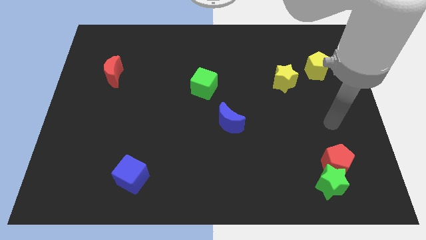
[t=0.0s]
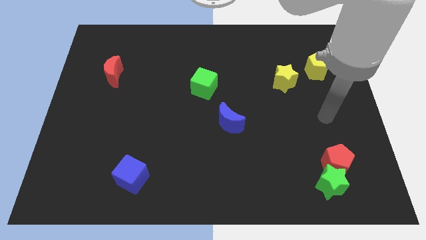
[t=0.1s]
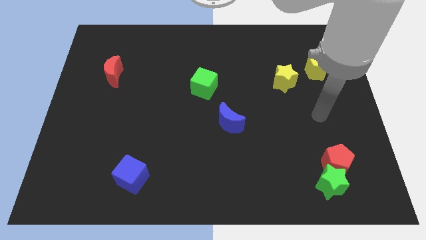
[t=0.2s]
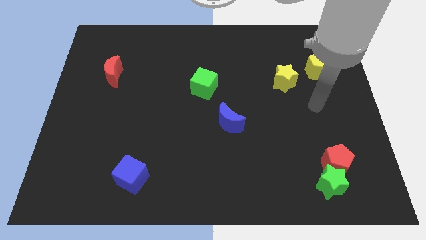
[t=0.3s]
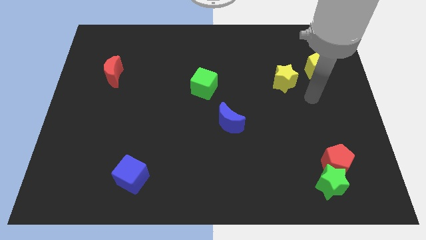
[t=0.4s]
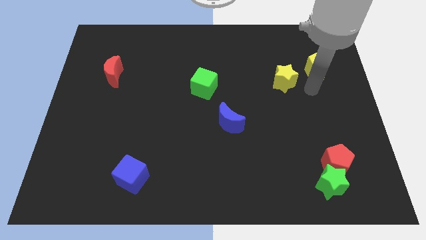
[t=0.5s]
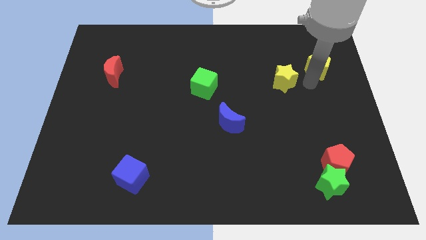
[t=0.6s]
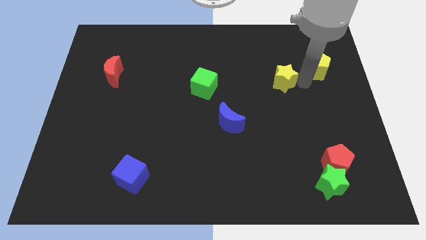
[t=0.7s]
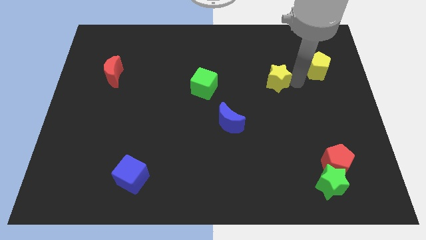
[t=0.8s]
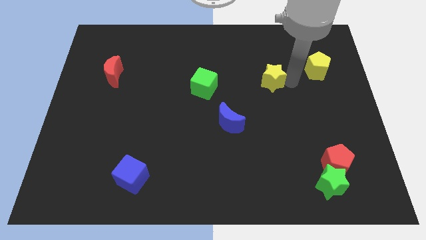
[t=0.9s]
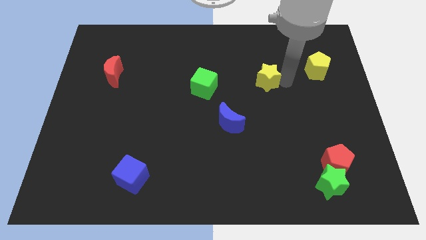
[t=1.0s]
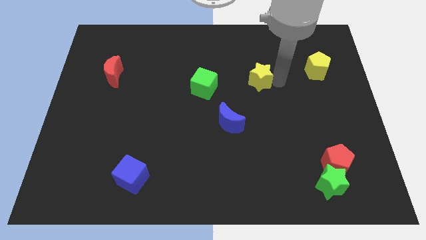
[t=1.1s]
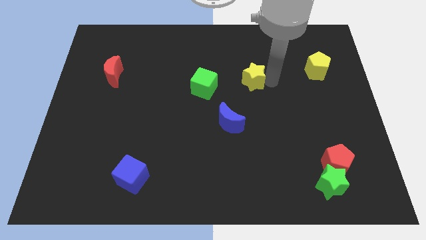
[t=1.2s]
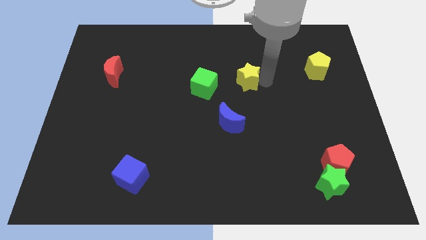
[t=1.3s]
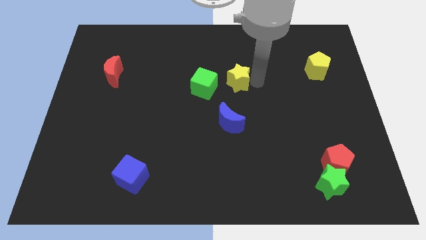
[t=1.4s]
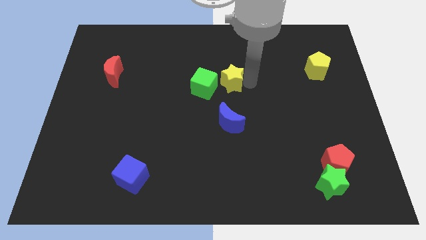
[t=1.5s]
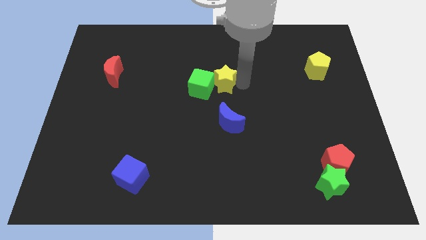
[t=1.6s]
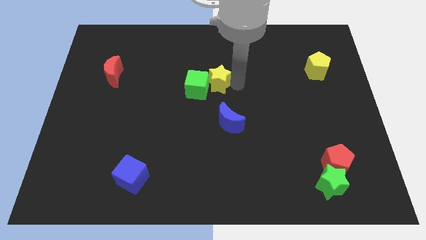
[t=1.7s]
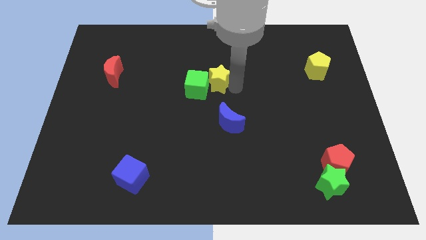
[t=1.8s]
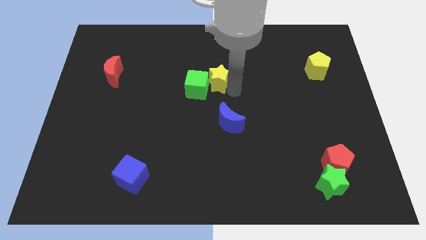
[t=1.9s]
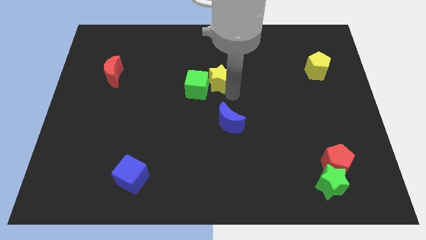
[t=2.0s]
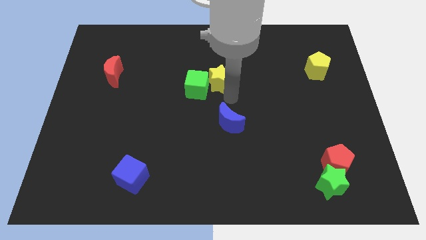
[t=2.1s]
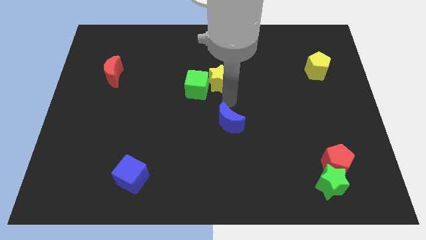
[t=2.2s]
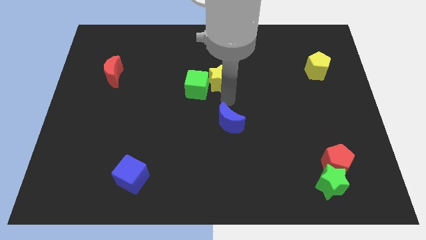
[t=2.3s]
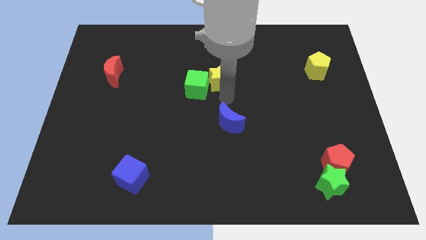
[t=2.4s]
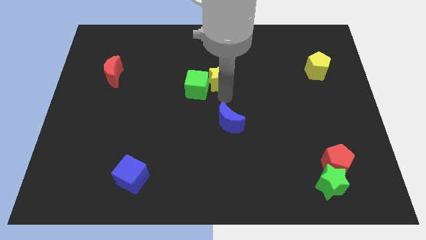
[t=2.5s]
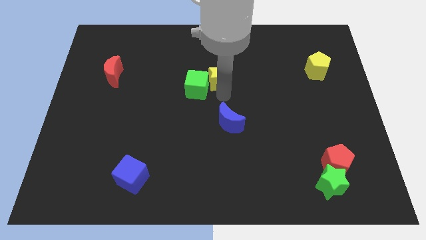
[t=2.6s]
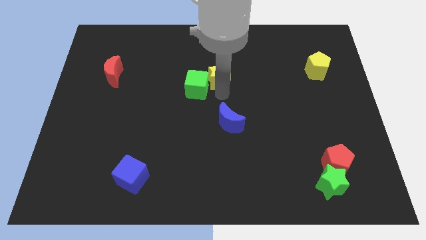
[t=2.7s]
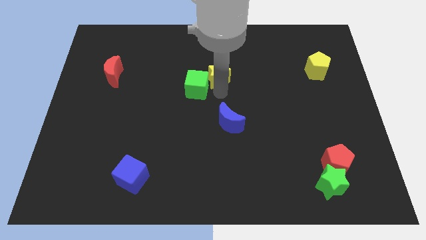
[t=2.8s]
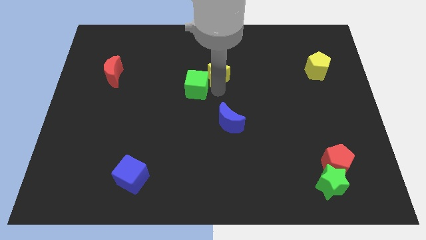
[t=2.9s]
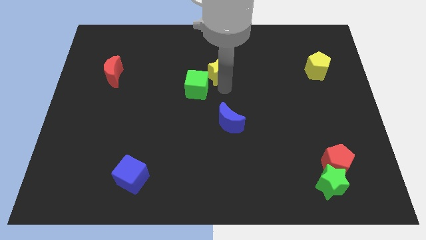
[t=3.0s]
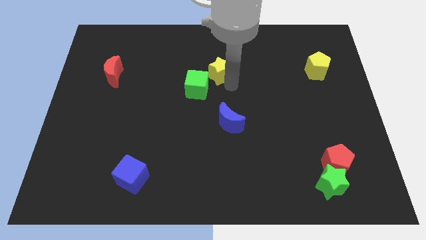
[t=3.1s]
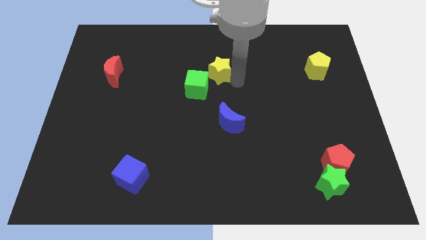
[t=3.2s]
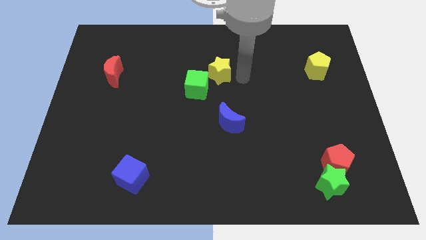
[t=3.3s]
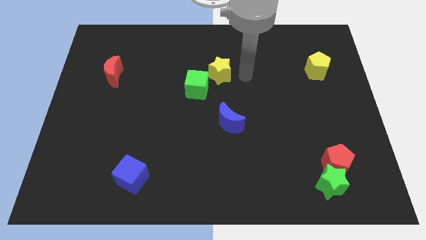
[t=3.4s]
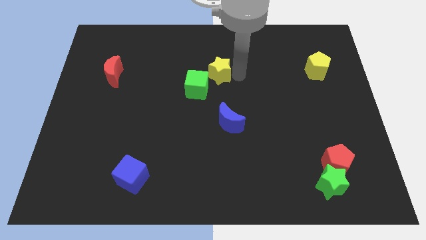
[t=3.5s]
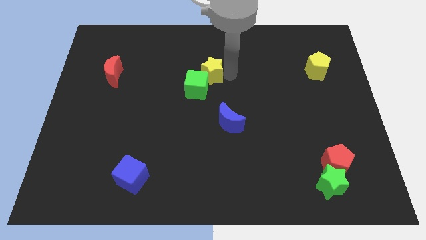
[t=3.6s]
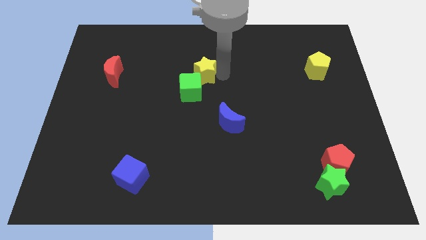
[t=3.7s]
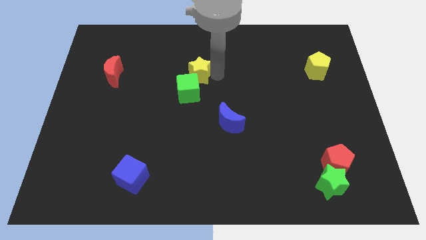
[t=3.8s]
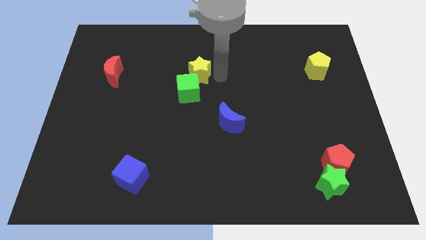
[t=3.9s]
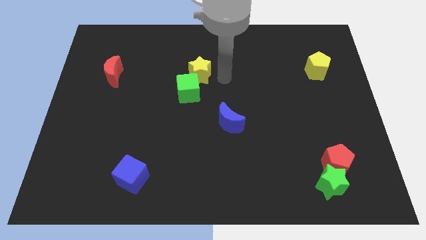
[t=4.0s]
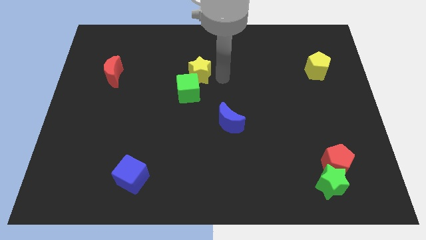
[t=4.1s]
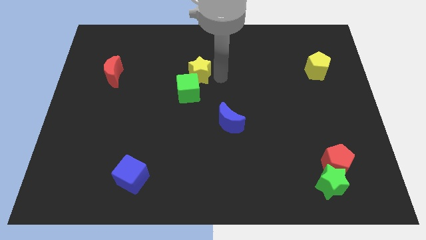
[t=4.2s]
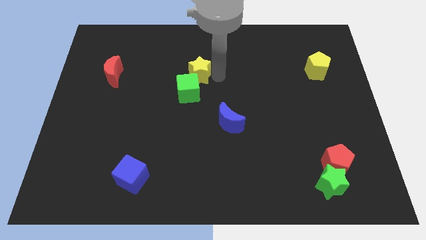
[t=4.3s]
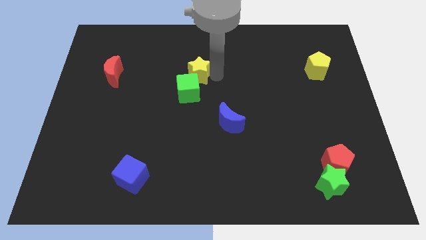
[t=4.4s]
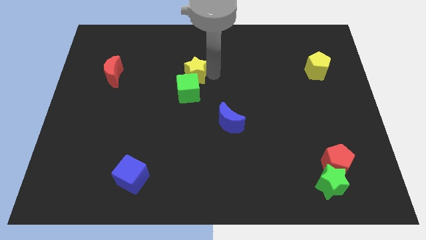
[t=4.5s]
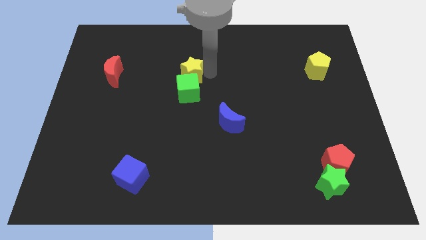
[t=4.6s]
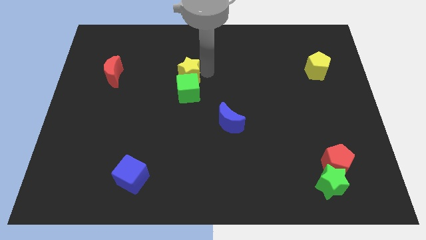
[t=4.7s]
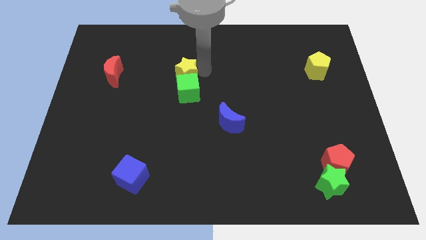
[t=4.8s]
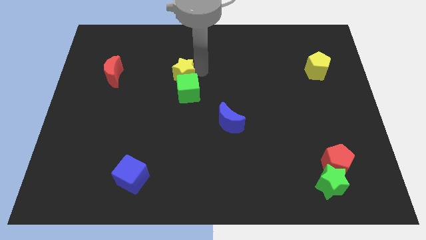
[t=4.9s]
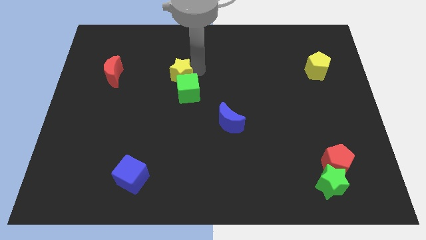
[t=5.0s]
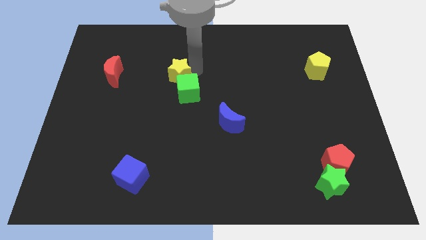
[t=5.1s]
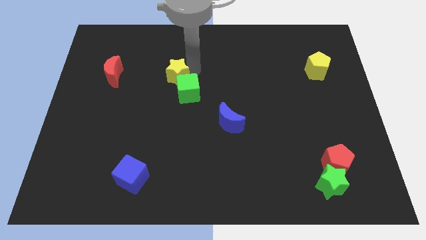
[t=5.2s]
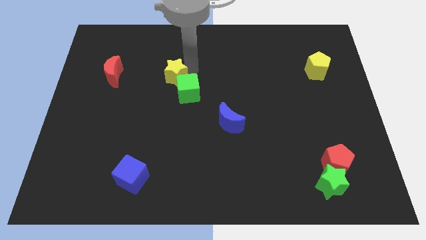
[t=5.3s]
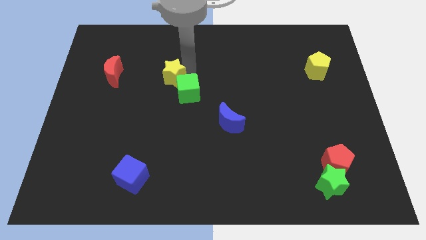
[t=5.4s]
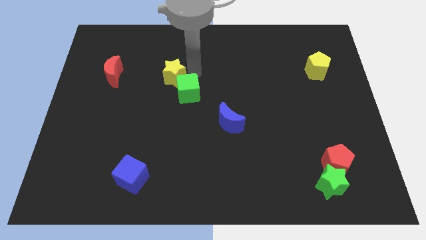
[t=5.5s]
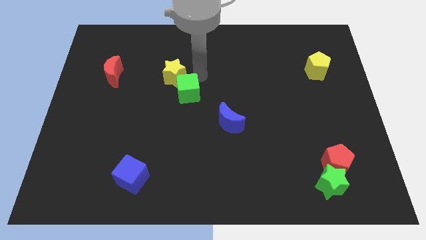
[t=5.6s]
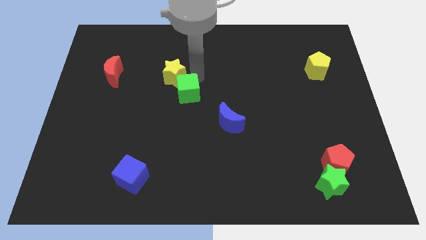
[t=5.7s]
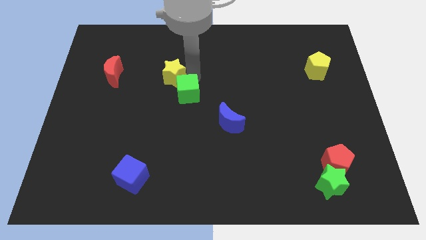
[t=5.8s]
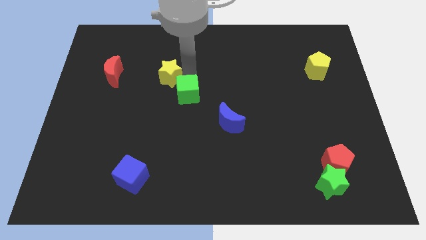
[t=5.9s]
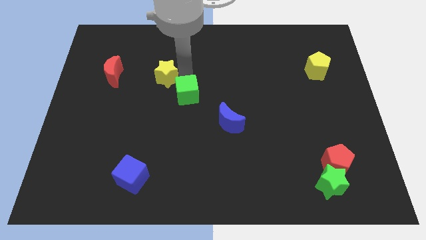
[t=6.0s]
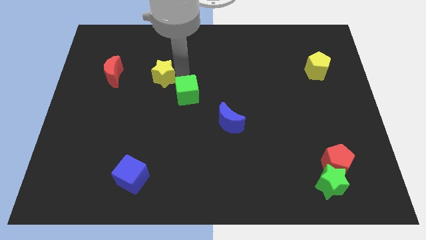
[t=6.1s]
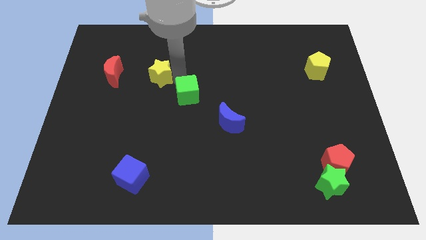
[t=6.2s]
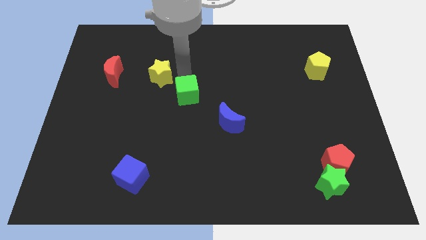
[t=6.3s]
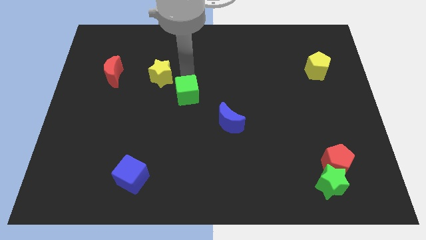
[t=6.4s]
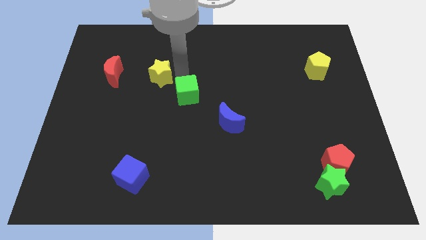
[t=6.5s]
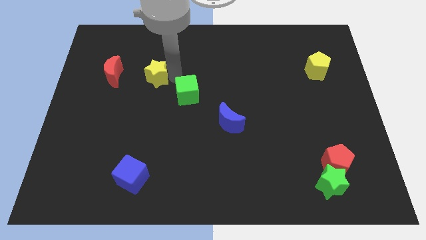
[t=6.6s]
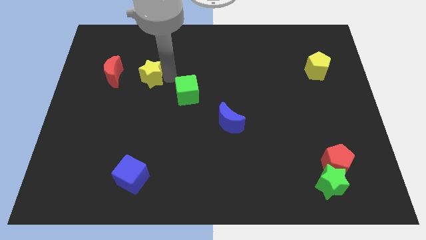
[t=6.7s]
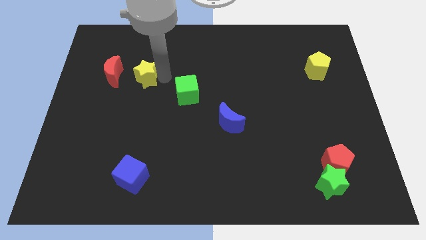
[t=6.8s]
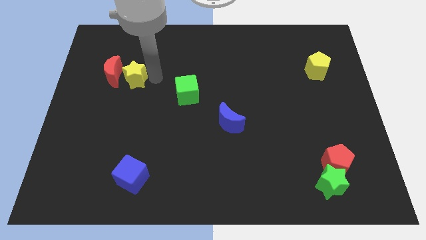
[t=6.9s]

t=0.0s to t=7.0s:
move the yellow star close to the red moon

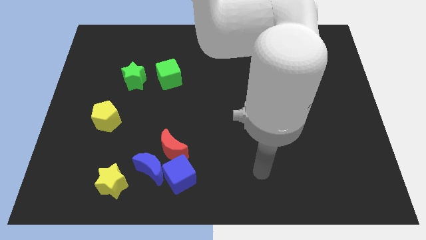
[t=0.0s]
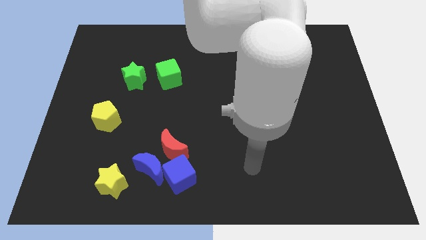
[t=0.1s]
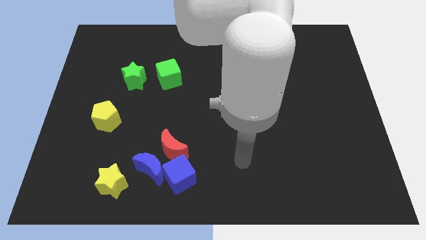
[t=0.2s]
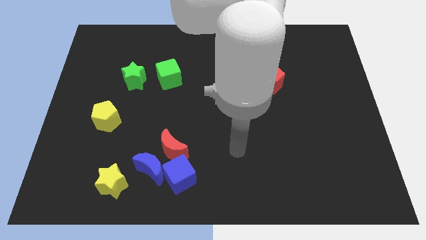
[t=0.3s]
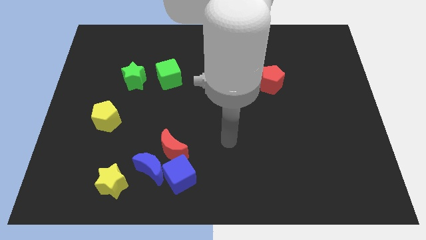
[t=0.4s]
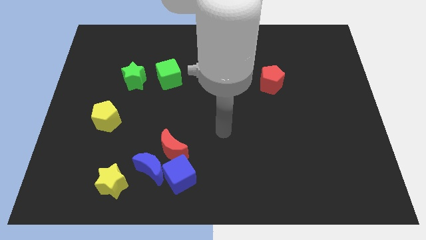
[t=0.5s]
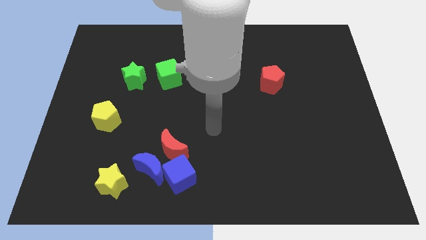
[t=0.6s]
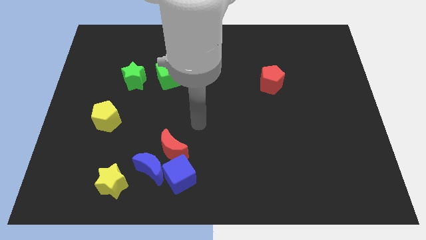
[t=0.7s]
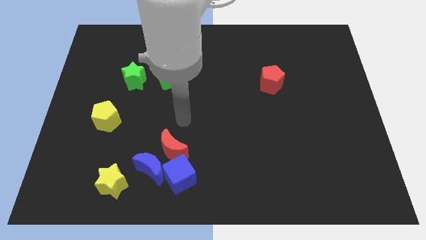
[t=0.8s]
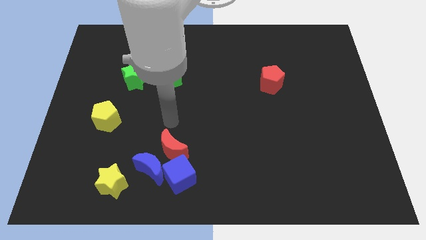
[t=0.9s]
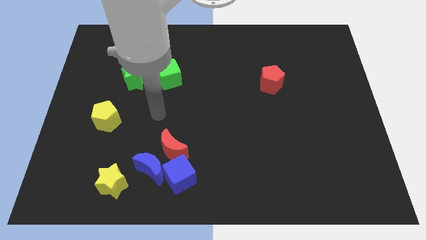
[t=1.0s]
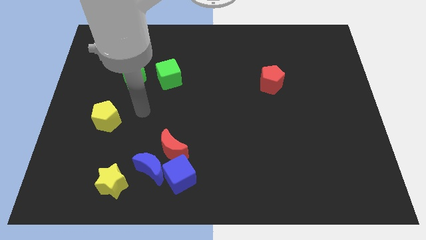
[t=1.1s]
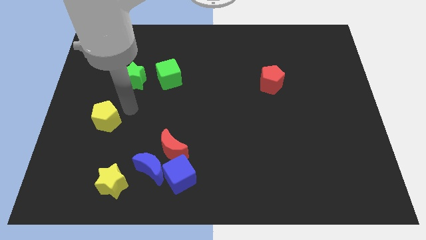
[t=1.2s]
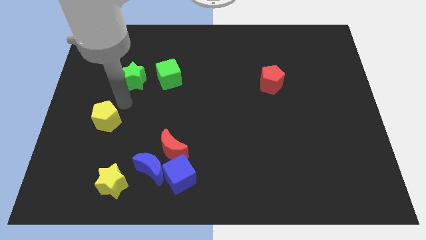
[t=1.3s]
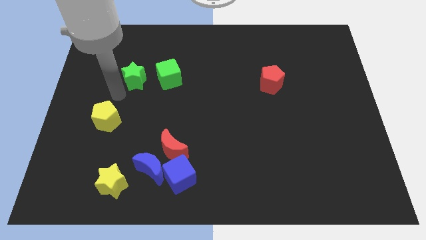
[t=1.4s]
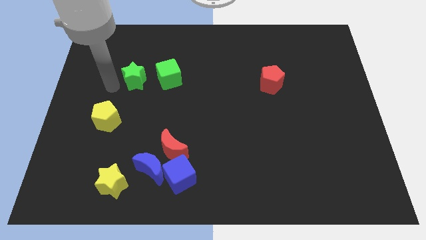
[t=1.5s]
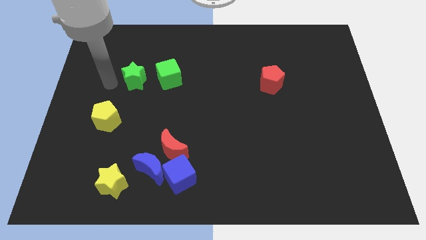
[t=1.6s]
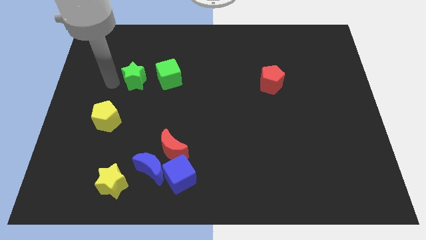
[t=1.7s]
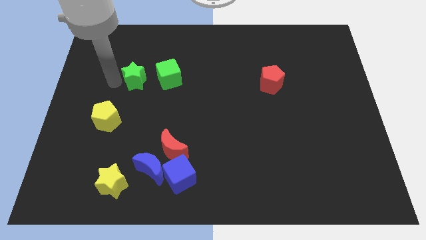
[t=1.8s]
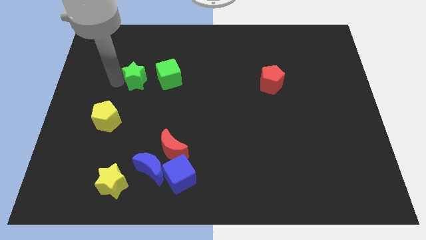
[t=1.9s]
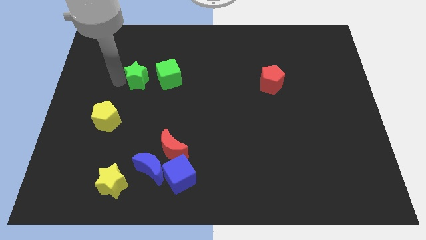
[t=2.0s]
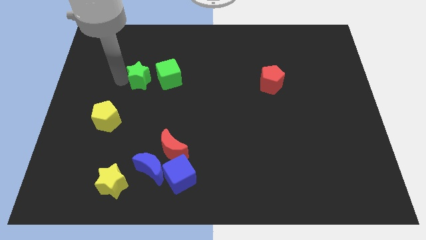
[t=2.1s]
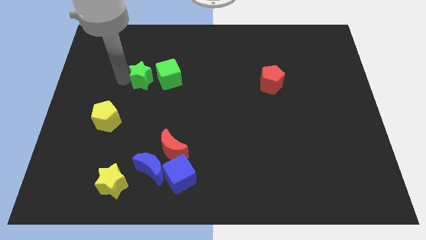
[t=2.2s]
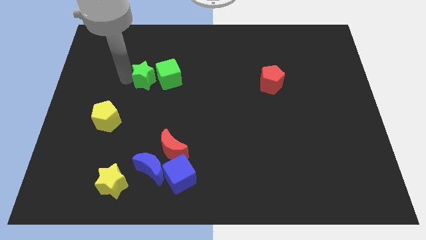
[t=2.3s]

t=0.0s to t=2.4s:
put the green star next to the green cube
